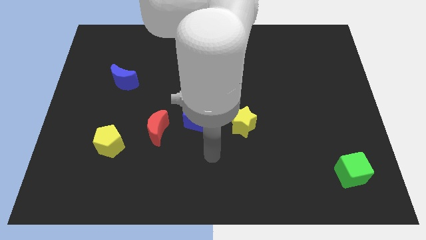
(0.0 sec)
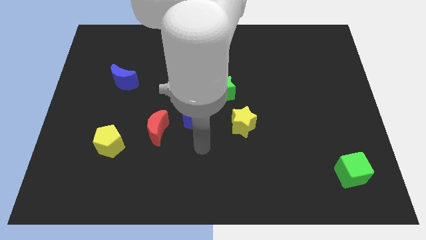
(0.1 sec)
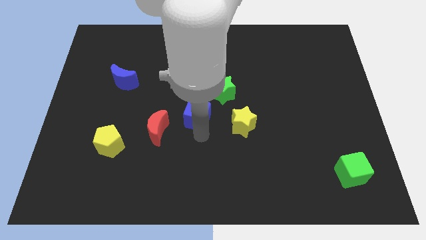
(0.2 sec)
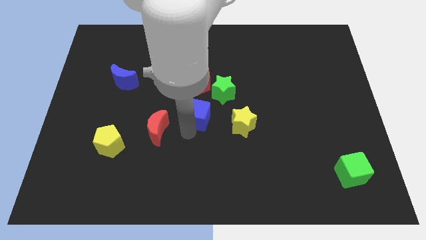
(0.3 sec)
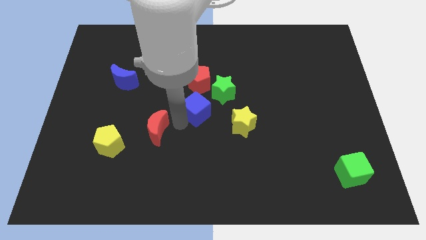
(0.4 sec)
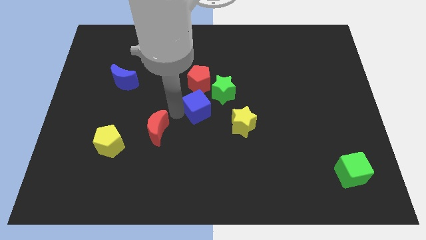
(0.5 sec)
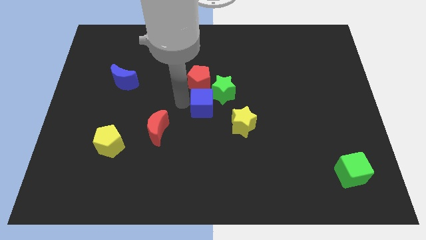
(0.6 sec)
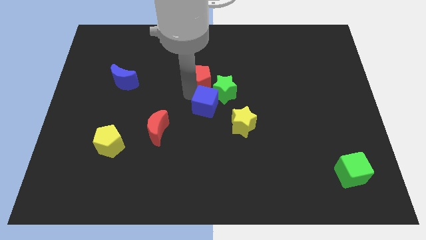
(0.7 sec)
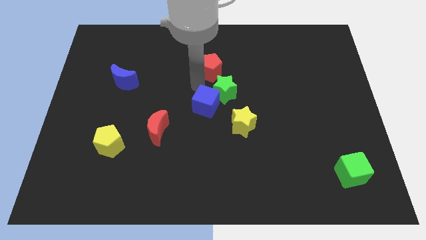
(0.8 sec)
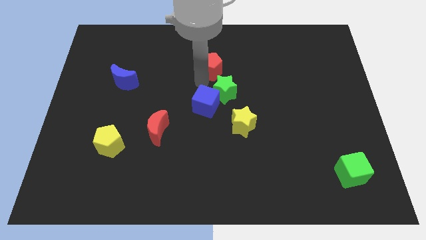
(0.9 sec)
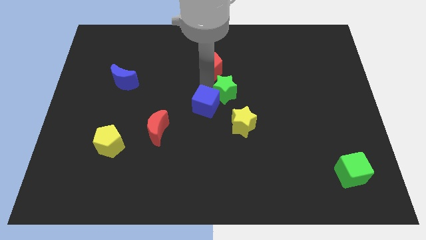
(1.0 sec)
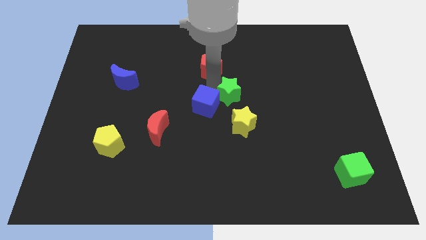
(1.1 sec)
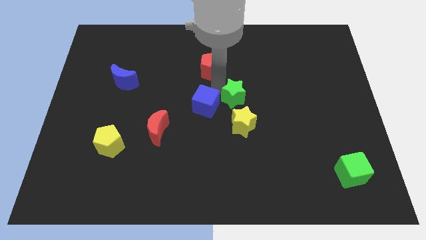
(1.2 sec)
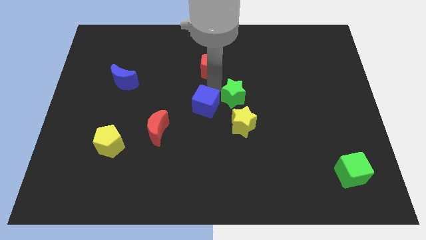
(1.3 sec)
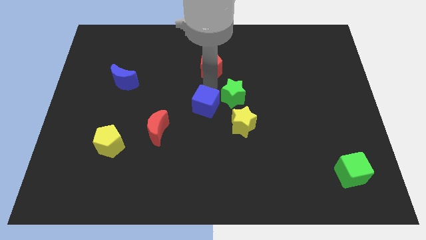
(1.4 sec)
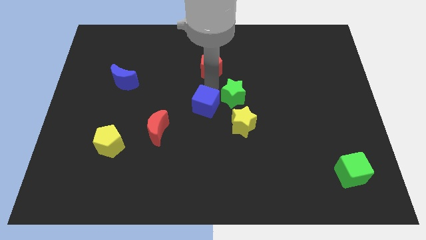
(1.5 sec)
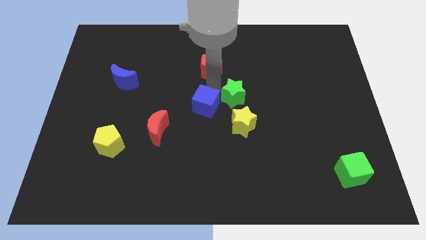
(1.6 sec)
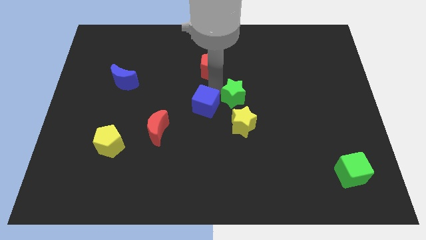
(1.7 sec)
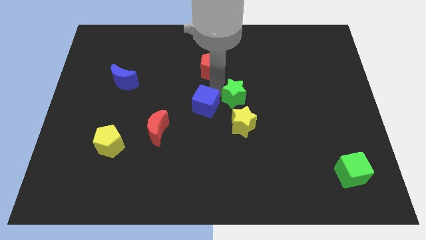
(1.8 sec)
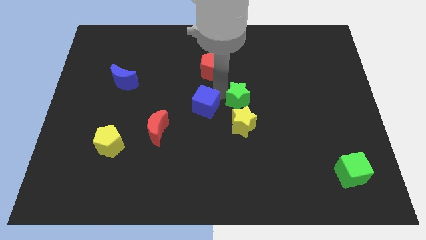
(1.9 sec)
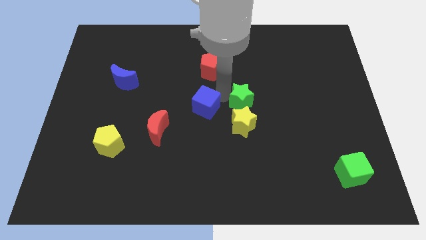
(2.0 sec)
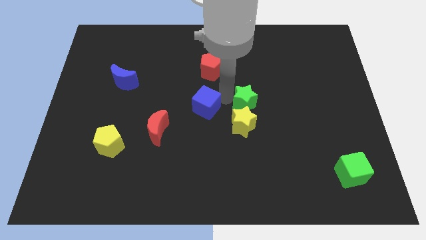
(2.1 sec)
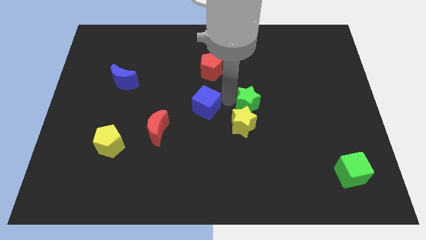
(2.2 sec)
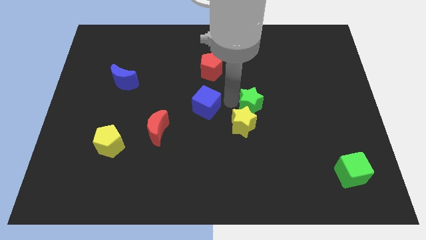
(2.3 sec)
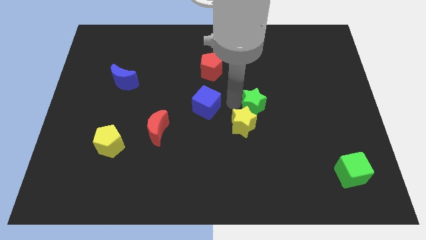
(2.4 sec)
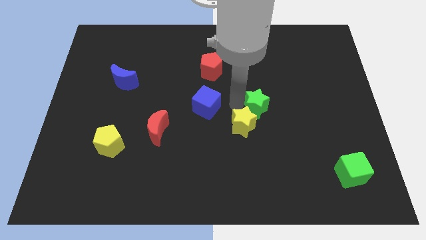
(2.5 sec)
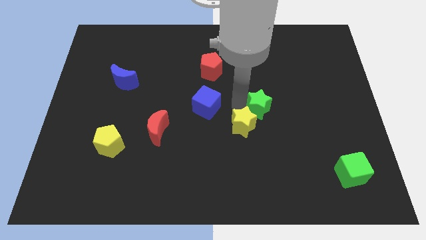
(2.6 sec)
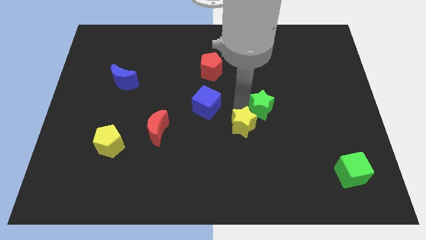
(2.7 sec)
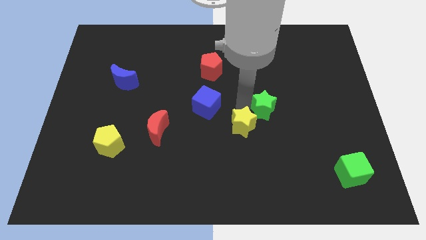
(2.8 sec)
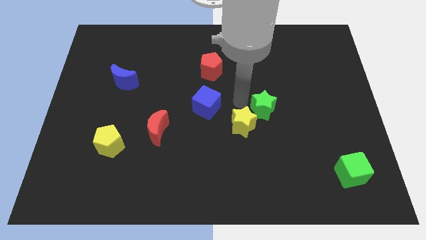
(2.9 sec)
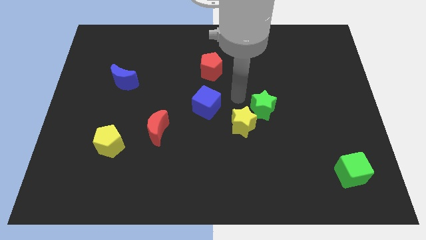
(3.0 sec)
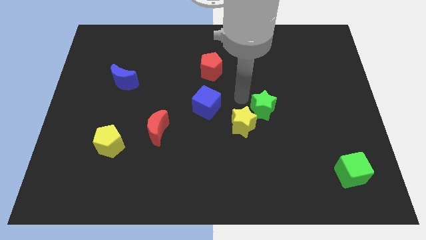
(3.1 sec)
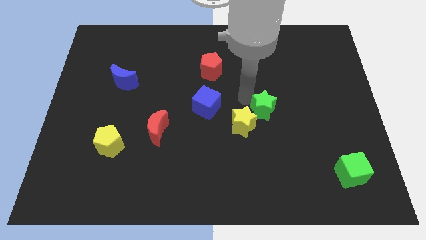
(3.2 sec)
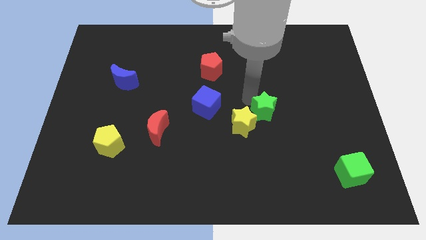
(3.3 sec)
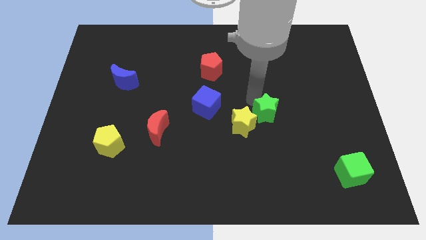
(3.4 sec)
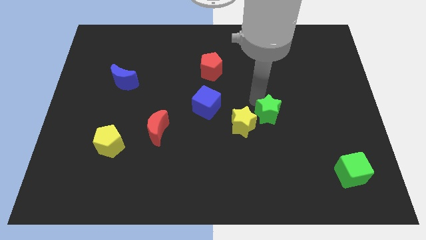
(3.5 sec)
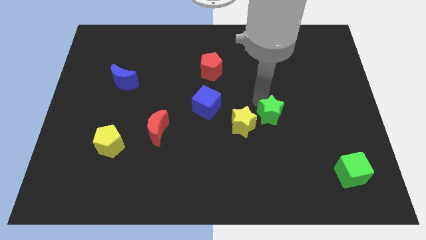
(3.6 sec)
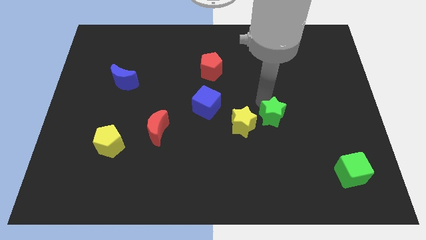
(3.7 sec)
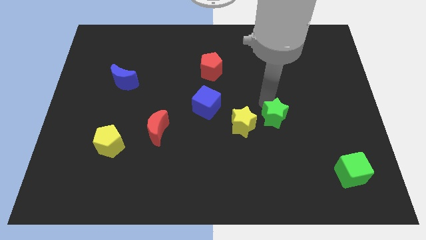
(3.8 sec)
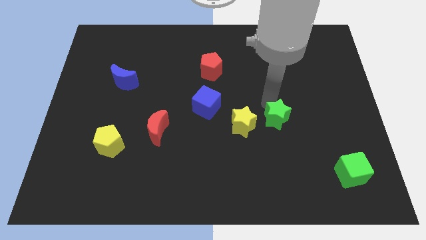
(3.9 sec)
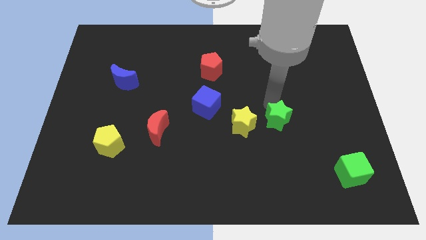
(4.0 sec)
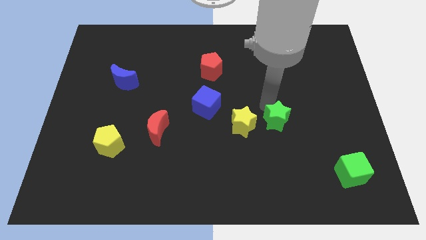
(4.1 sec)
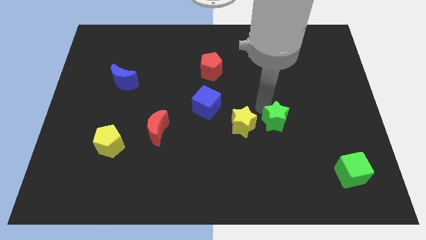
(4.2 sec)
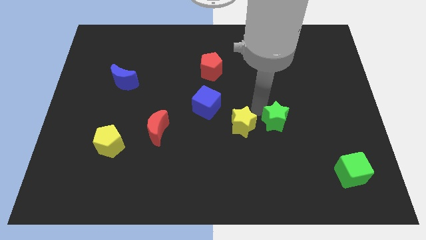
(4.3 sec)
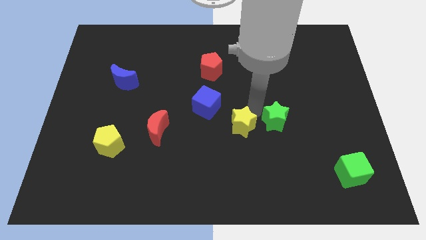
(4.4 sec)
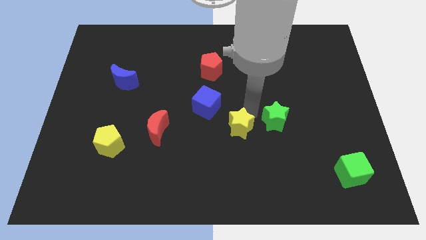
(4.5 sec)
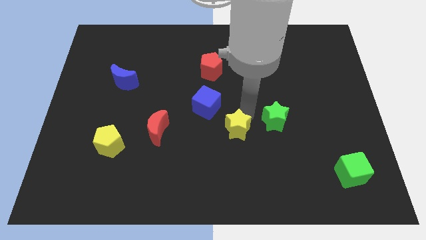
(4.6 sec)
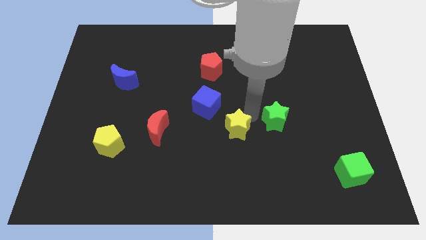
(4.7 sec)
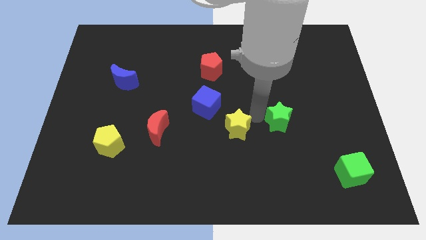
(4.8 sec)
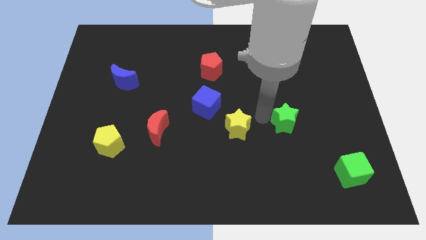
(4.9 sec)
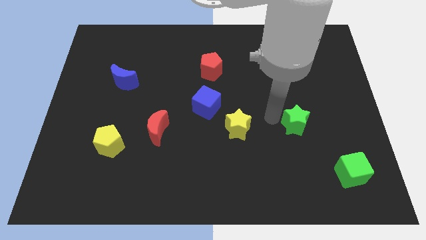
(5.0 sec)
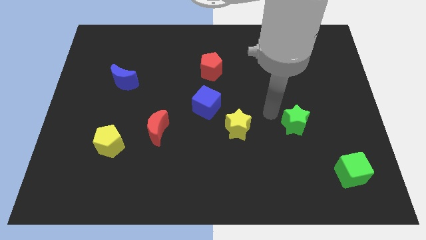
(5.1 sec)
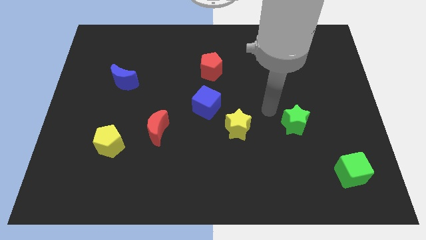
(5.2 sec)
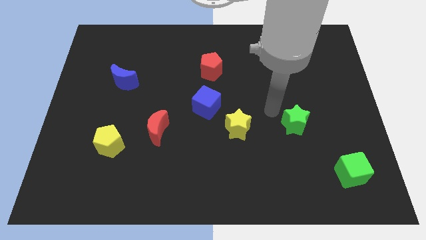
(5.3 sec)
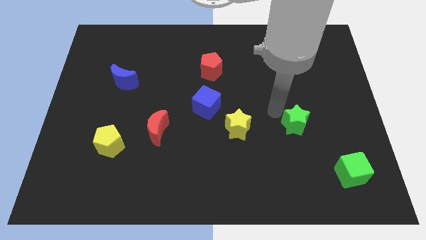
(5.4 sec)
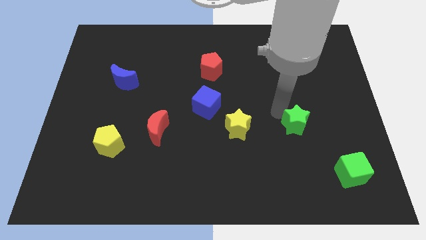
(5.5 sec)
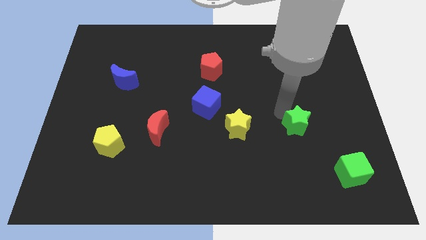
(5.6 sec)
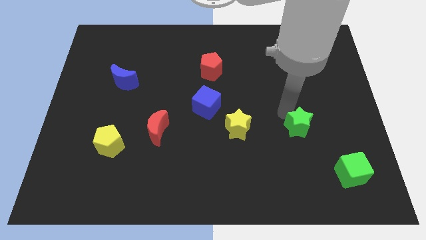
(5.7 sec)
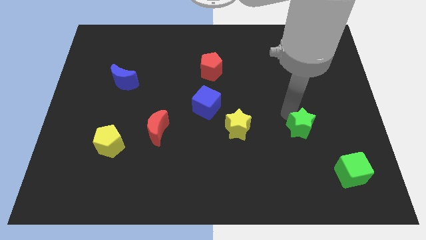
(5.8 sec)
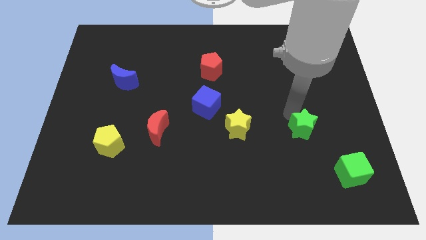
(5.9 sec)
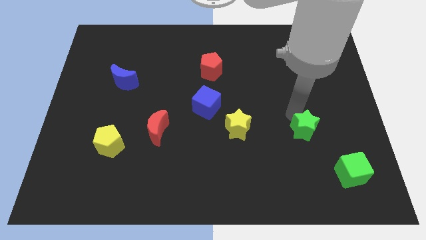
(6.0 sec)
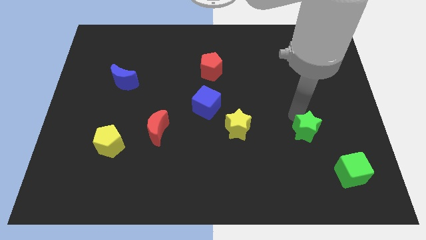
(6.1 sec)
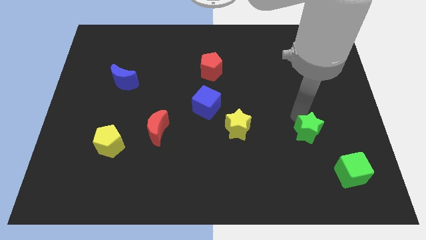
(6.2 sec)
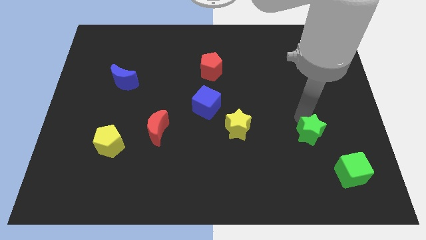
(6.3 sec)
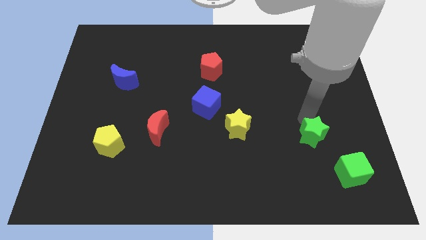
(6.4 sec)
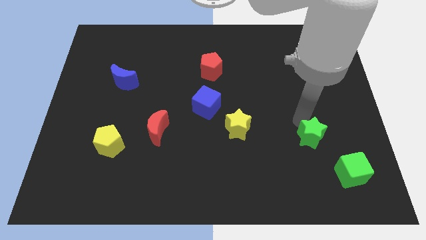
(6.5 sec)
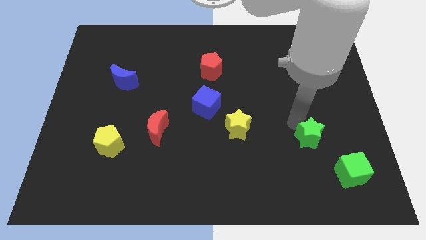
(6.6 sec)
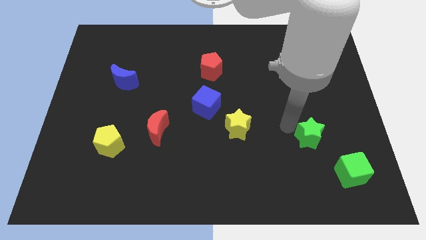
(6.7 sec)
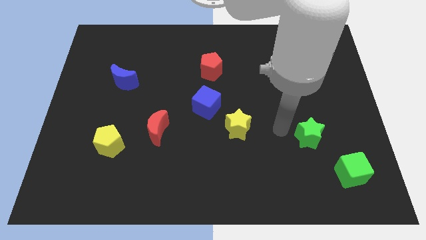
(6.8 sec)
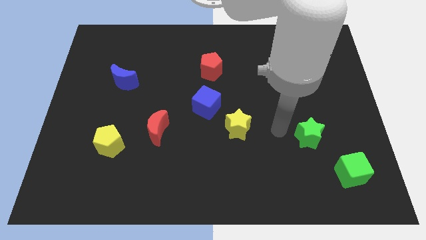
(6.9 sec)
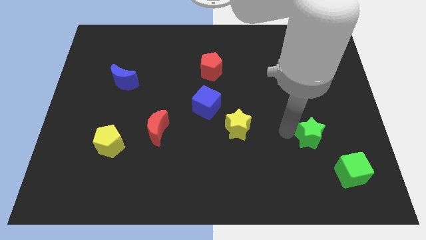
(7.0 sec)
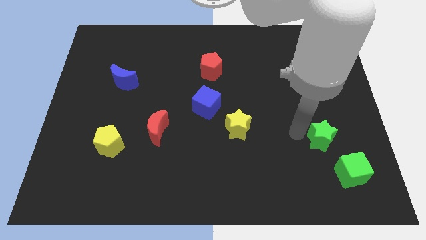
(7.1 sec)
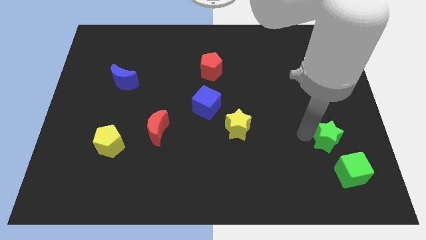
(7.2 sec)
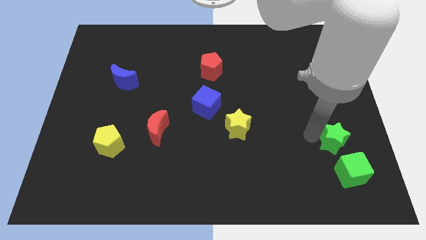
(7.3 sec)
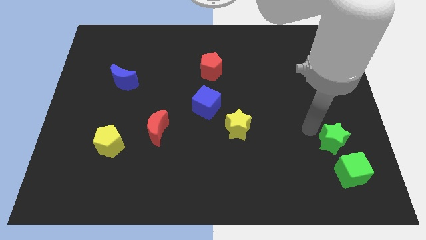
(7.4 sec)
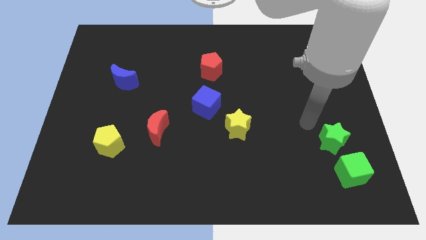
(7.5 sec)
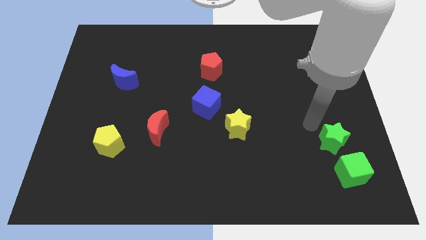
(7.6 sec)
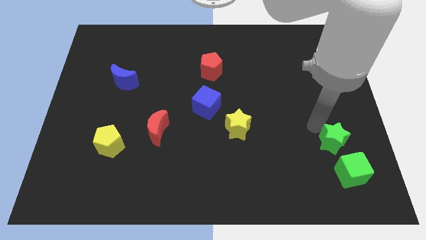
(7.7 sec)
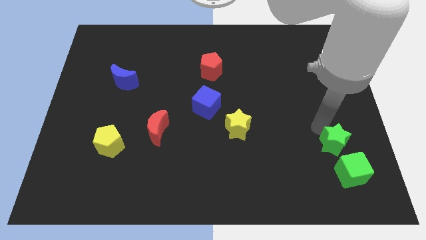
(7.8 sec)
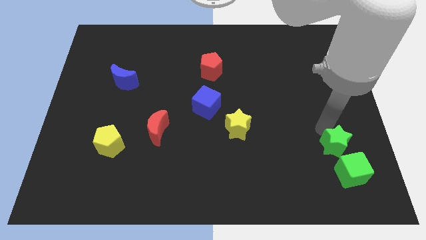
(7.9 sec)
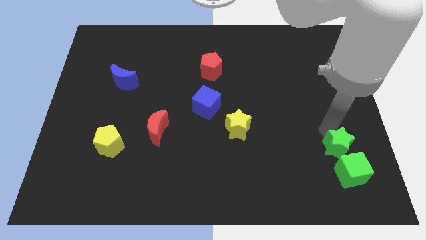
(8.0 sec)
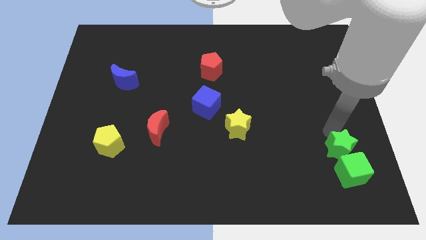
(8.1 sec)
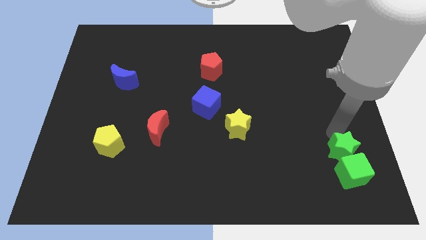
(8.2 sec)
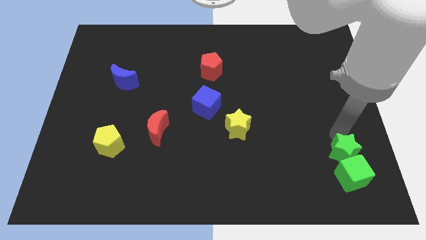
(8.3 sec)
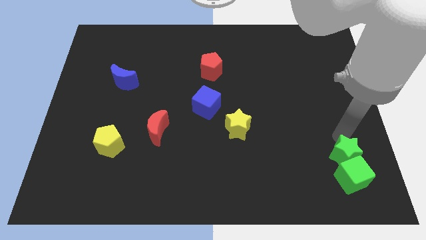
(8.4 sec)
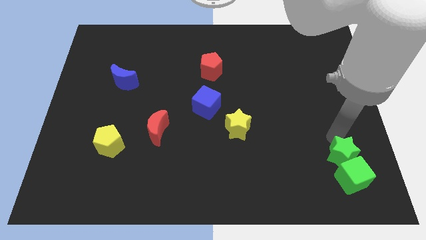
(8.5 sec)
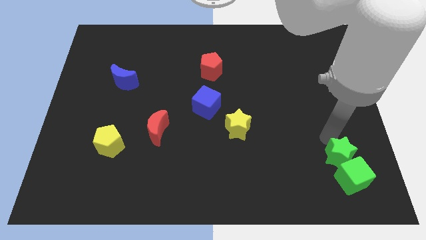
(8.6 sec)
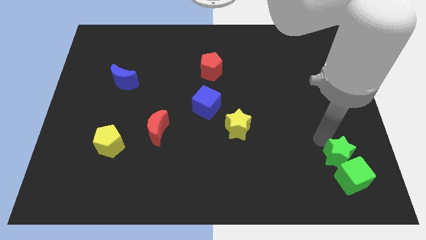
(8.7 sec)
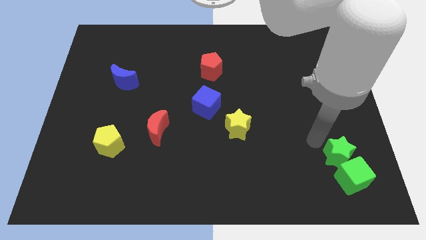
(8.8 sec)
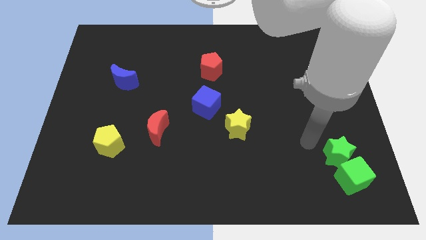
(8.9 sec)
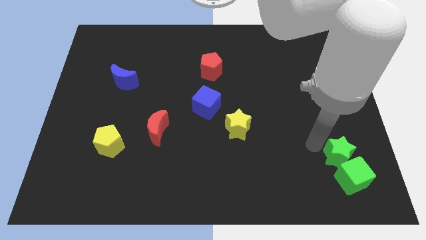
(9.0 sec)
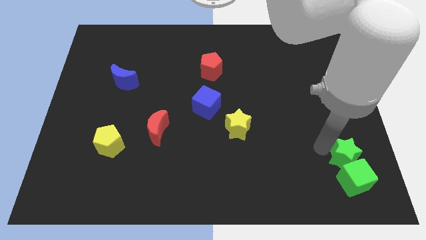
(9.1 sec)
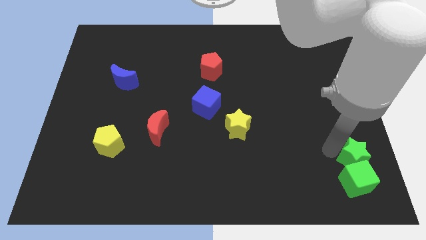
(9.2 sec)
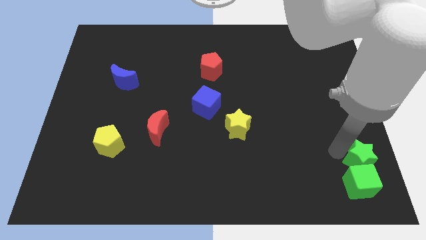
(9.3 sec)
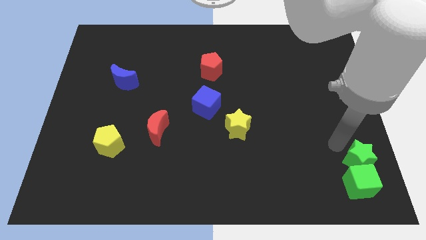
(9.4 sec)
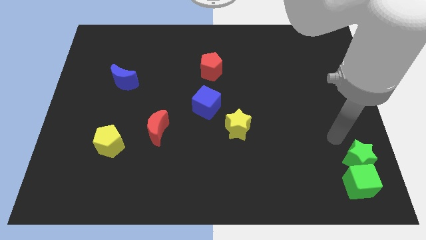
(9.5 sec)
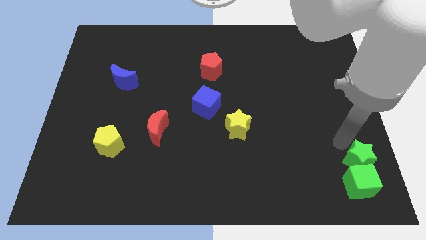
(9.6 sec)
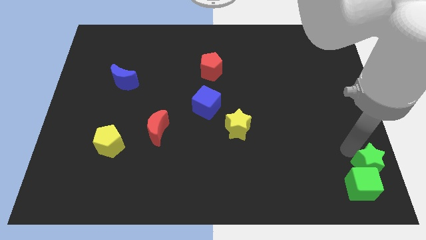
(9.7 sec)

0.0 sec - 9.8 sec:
push the green star to the bottom right of the board
